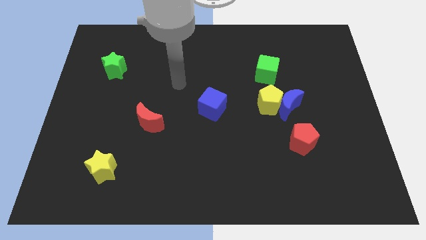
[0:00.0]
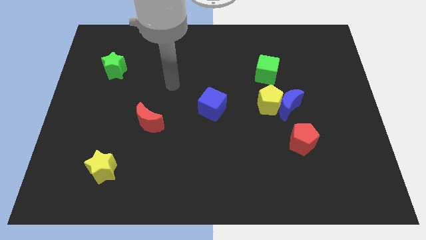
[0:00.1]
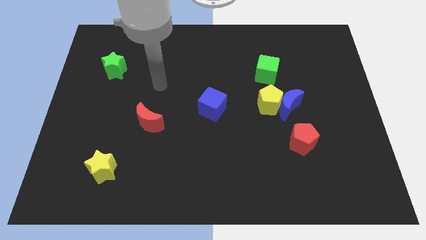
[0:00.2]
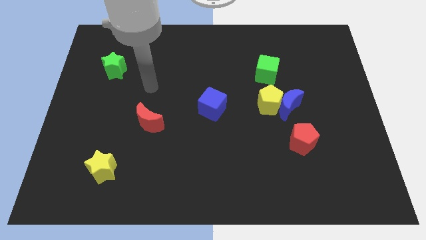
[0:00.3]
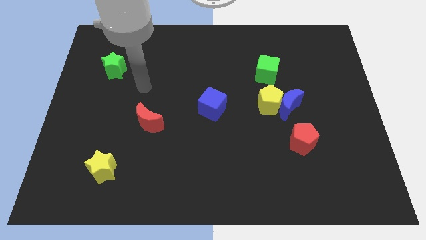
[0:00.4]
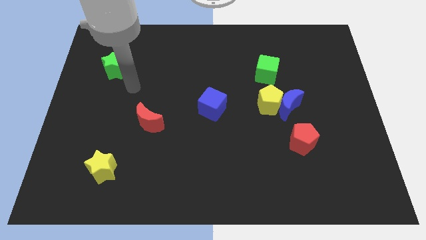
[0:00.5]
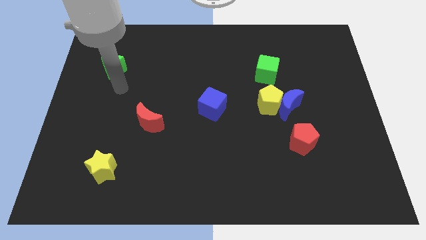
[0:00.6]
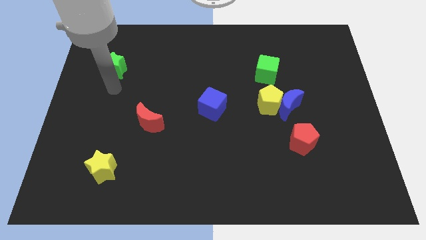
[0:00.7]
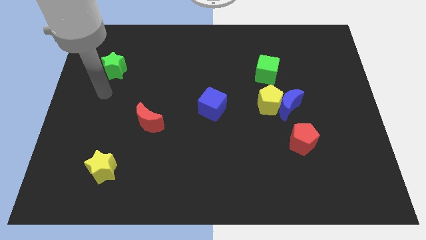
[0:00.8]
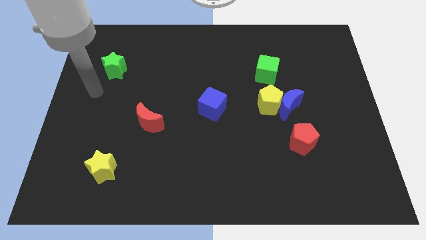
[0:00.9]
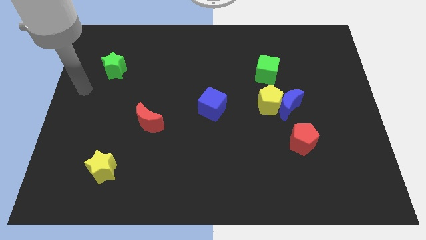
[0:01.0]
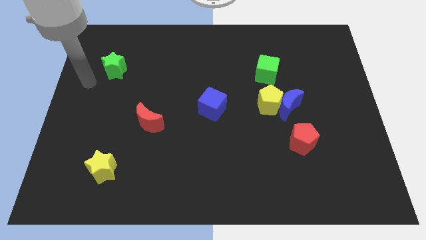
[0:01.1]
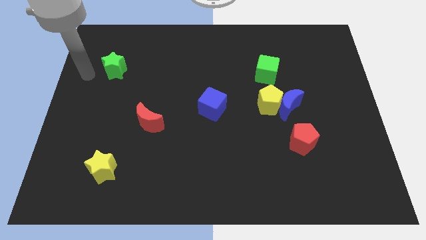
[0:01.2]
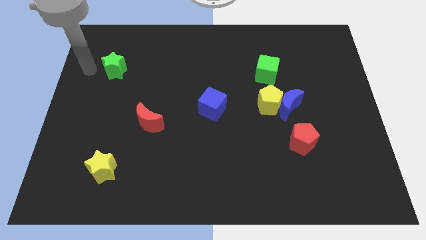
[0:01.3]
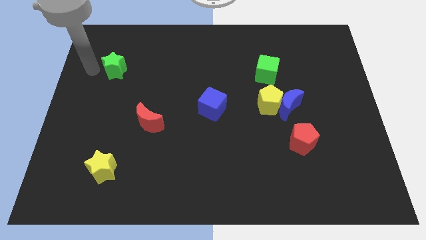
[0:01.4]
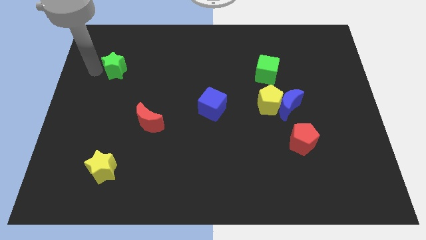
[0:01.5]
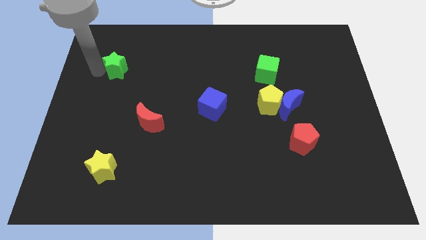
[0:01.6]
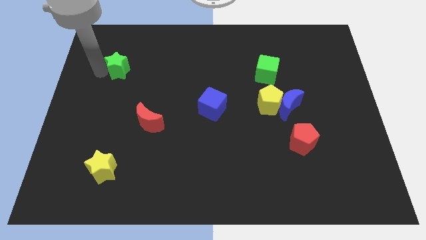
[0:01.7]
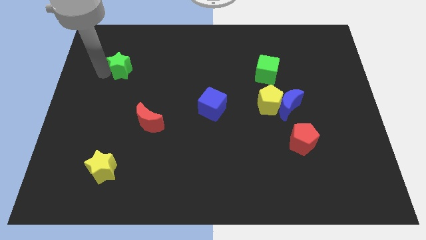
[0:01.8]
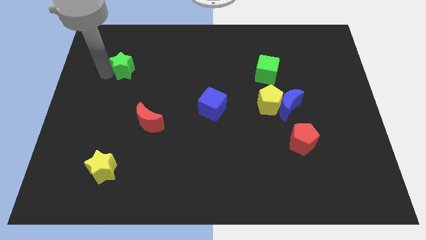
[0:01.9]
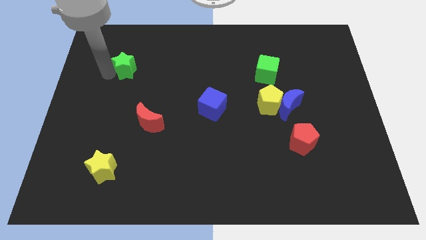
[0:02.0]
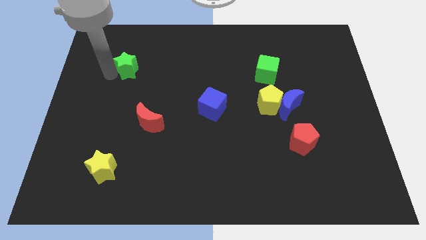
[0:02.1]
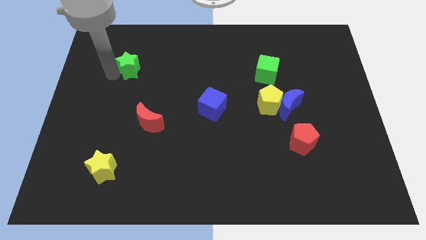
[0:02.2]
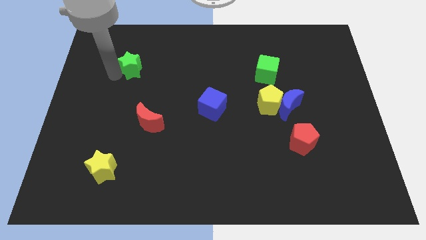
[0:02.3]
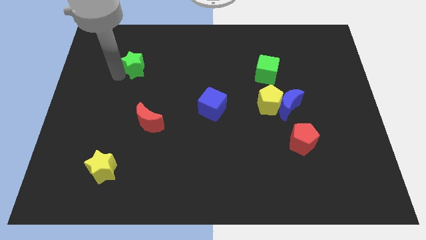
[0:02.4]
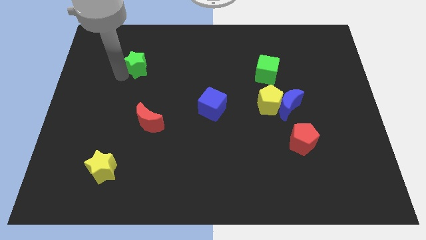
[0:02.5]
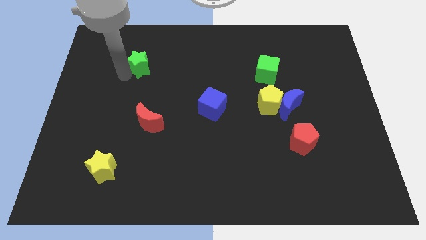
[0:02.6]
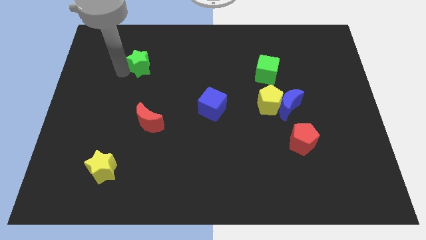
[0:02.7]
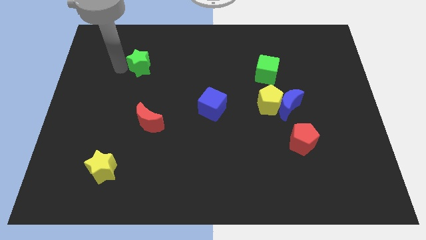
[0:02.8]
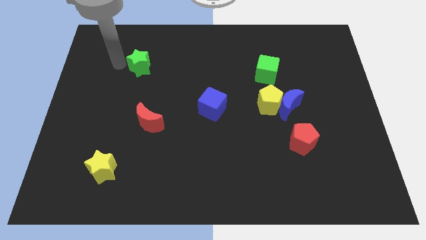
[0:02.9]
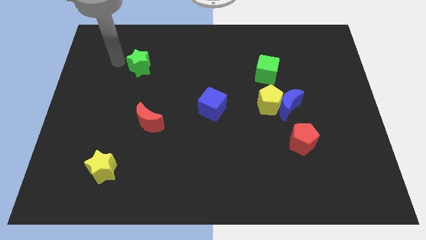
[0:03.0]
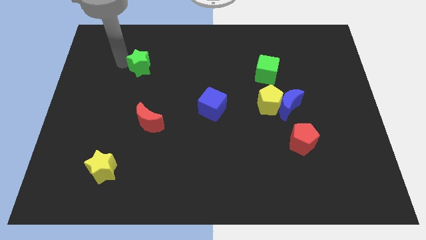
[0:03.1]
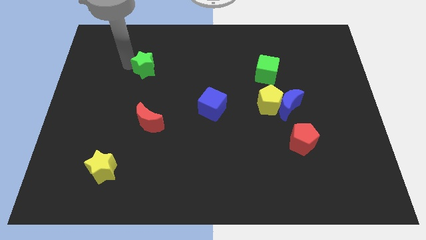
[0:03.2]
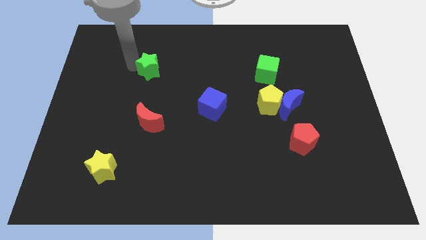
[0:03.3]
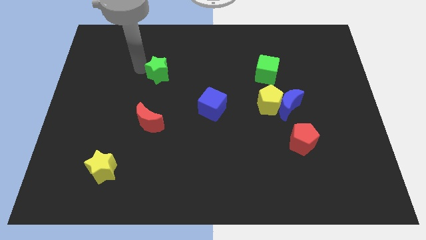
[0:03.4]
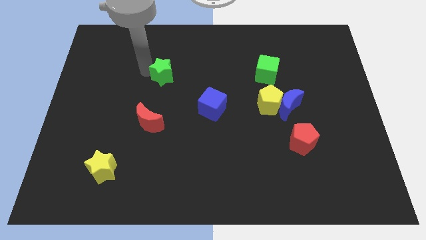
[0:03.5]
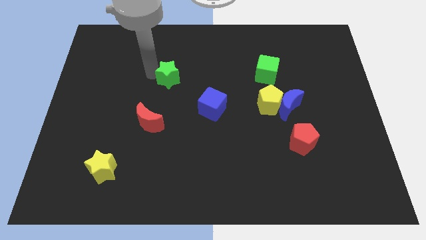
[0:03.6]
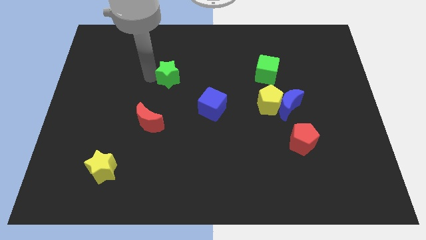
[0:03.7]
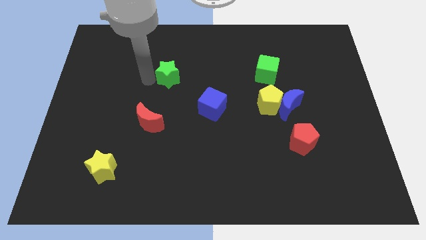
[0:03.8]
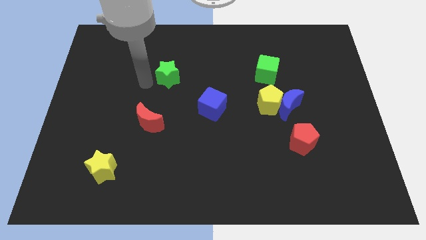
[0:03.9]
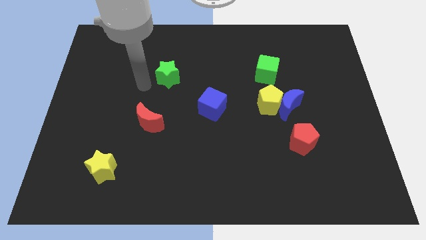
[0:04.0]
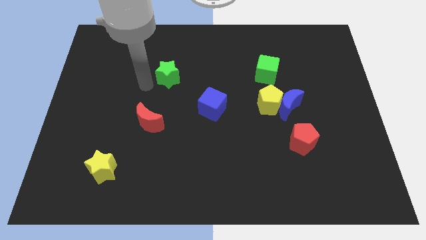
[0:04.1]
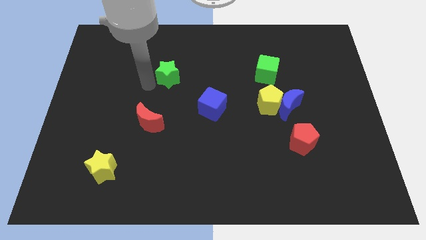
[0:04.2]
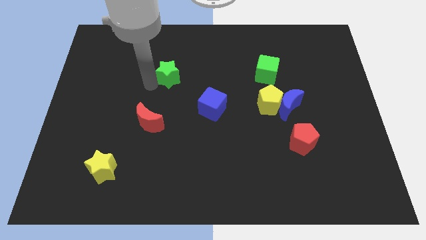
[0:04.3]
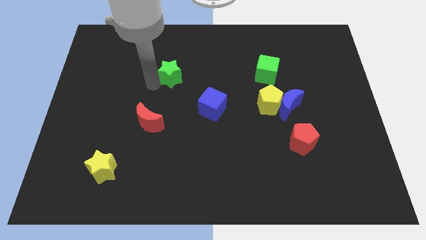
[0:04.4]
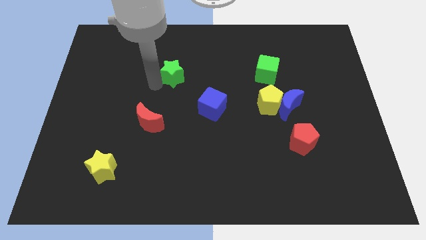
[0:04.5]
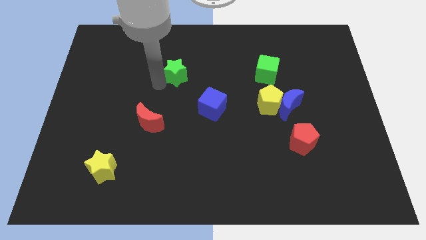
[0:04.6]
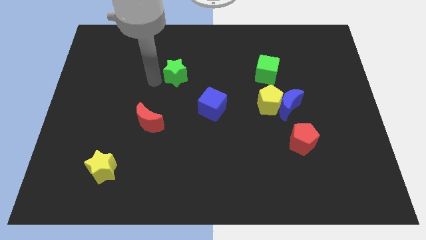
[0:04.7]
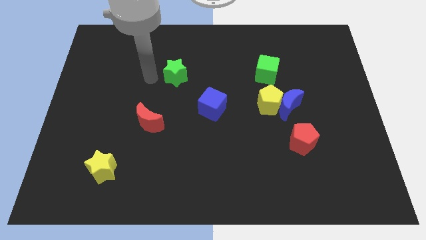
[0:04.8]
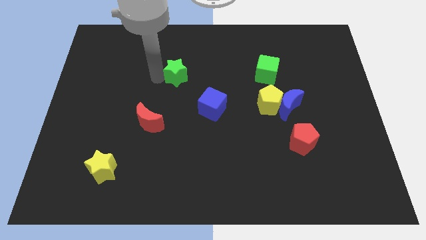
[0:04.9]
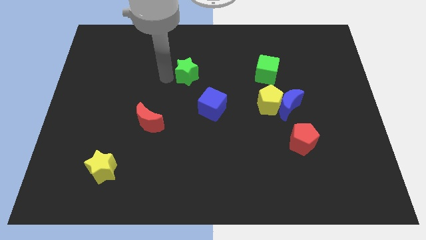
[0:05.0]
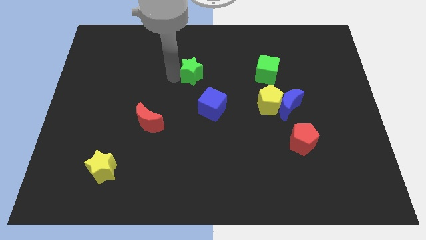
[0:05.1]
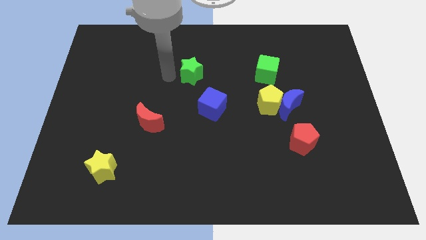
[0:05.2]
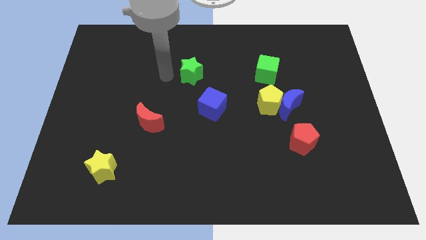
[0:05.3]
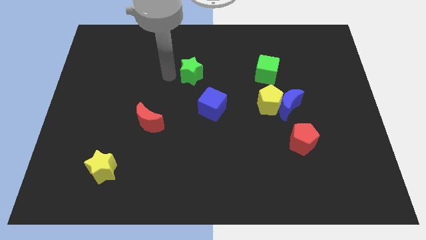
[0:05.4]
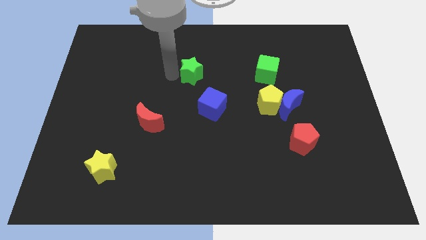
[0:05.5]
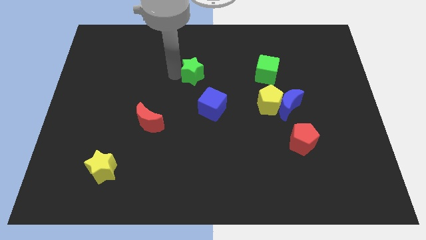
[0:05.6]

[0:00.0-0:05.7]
put the green star above the blue cube

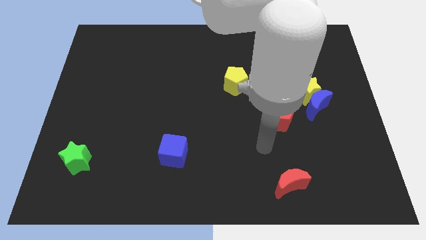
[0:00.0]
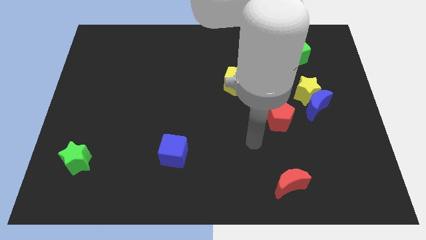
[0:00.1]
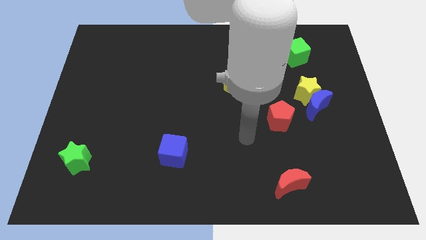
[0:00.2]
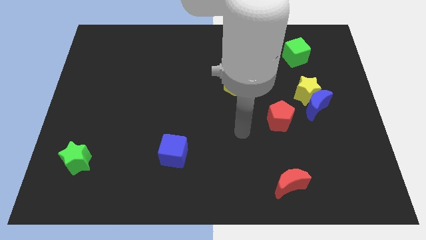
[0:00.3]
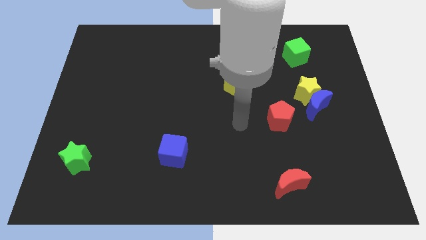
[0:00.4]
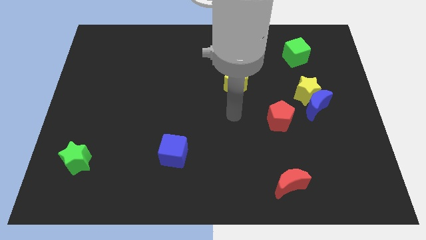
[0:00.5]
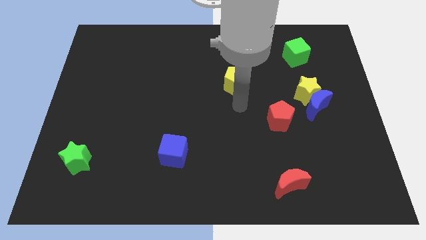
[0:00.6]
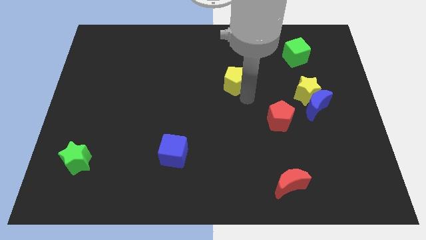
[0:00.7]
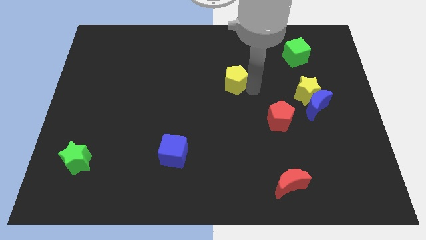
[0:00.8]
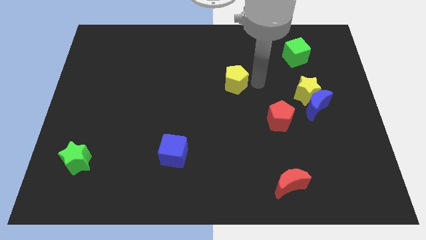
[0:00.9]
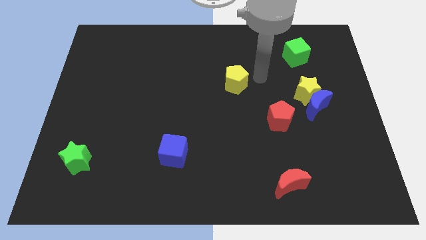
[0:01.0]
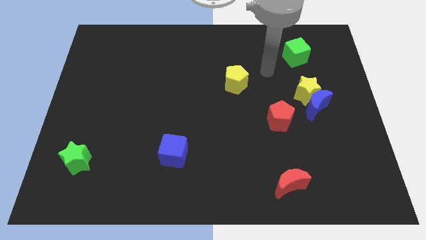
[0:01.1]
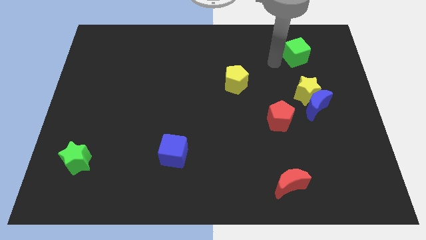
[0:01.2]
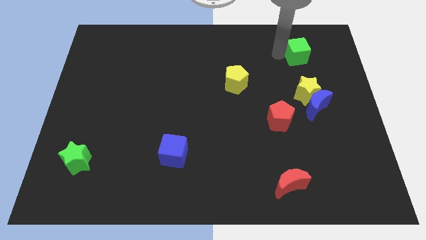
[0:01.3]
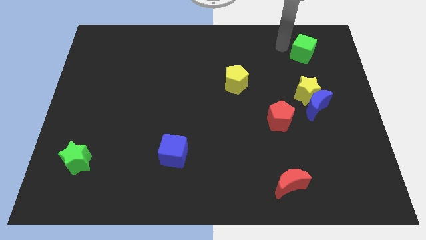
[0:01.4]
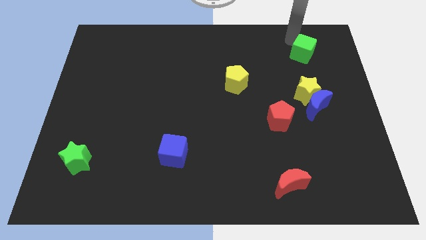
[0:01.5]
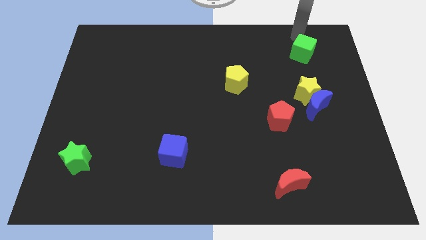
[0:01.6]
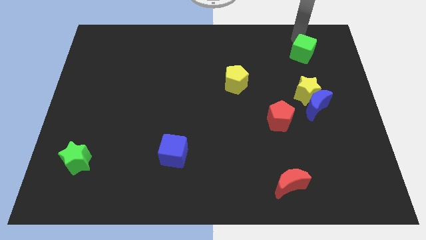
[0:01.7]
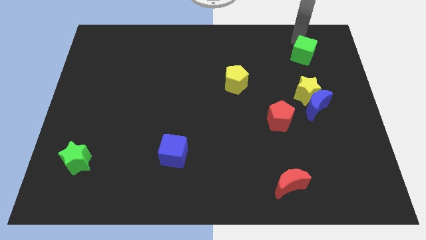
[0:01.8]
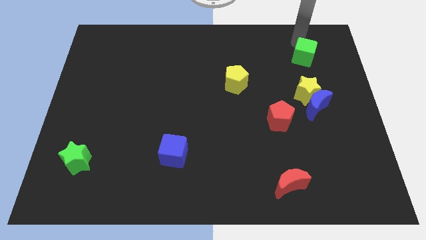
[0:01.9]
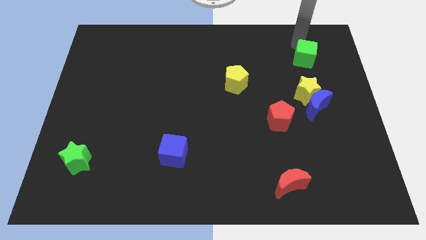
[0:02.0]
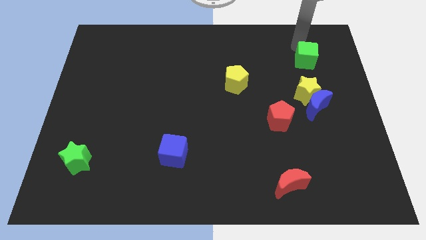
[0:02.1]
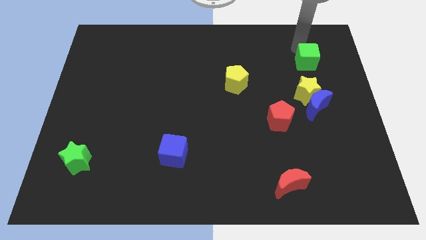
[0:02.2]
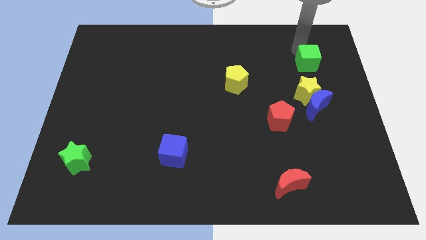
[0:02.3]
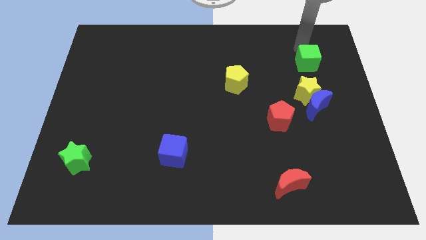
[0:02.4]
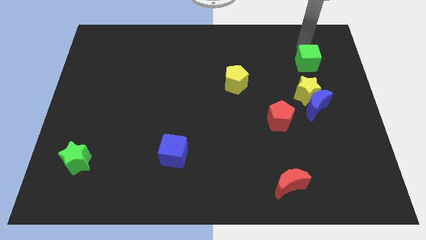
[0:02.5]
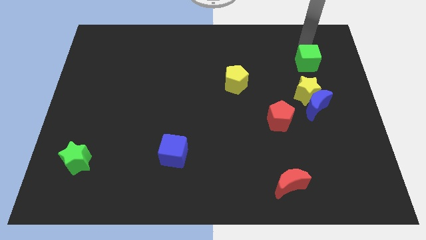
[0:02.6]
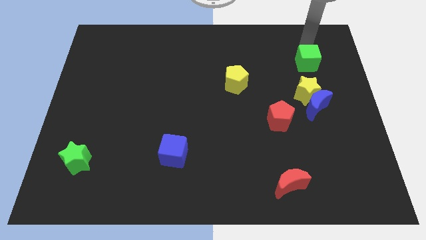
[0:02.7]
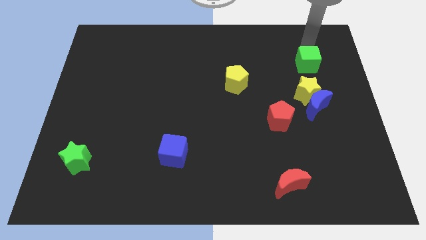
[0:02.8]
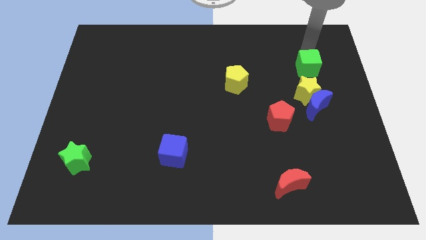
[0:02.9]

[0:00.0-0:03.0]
move the green cube diagonally up and to the right of the yellow star
